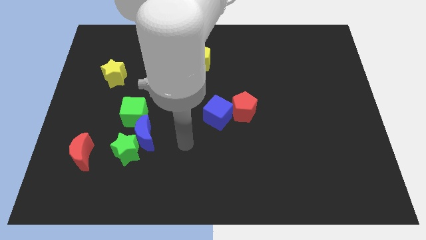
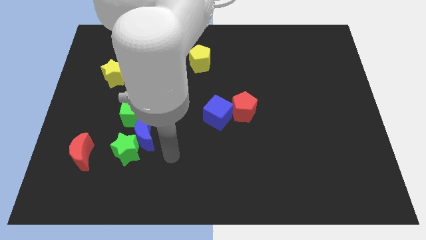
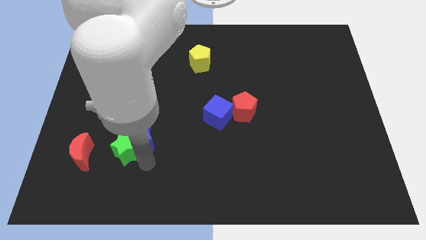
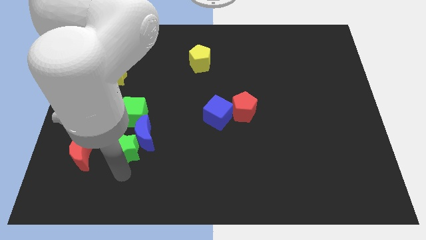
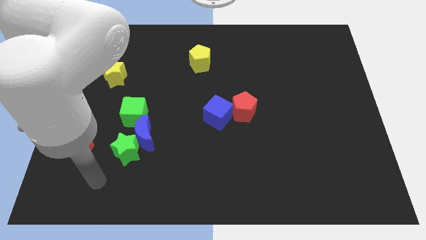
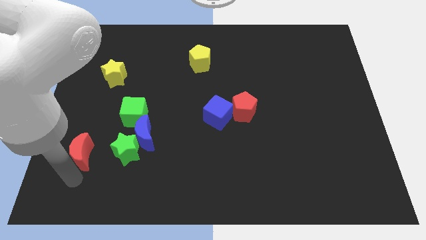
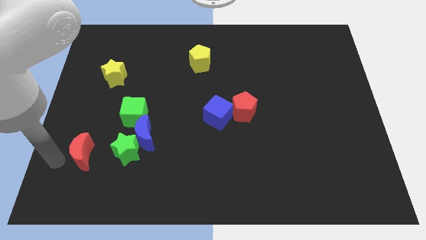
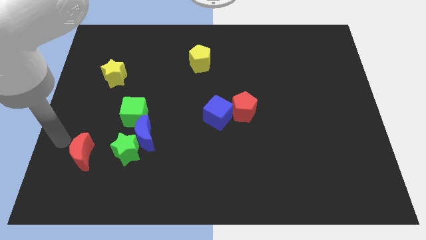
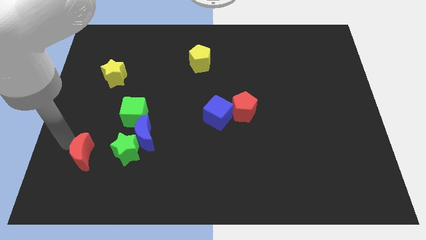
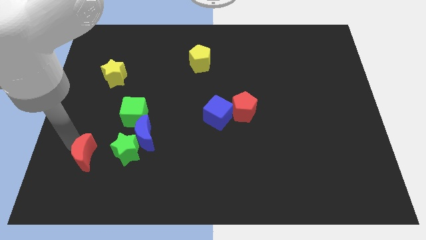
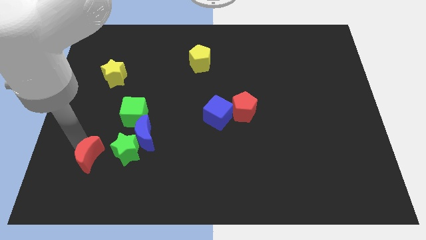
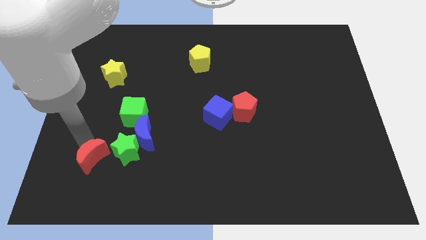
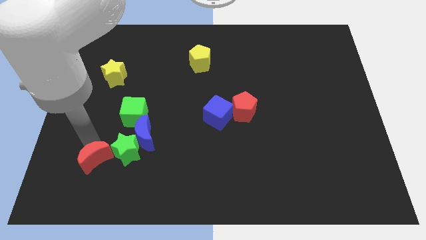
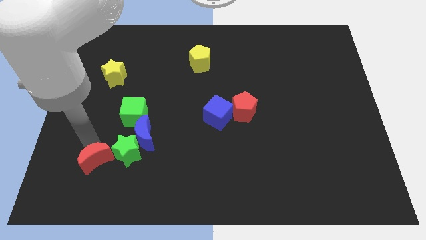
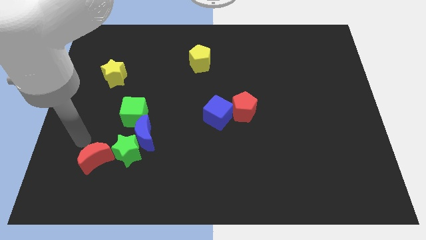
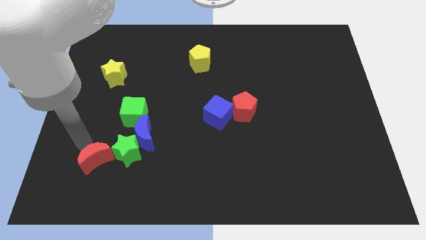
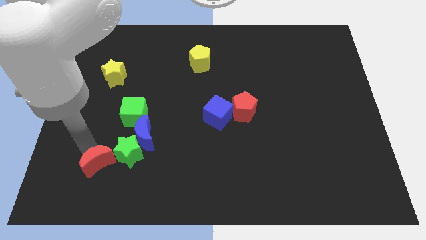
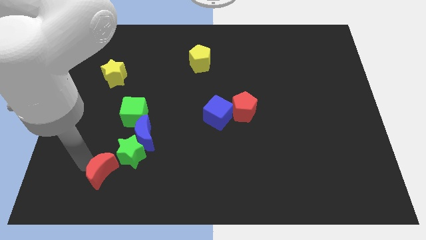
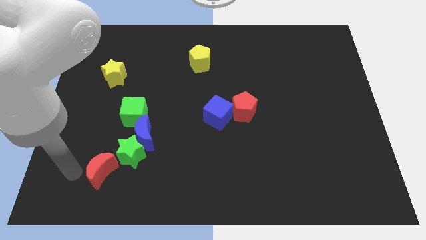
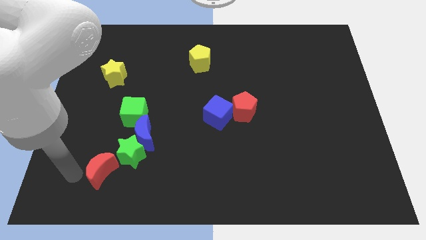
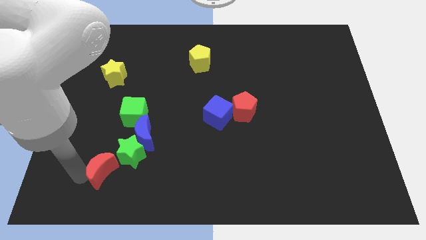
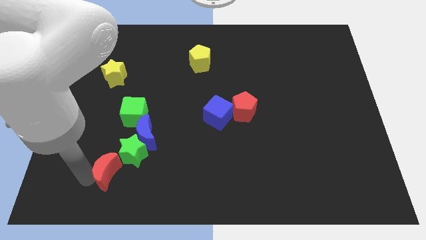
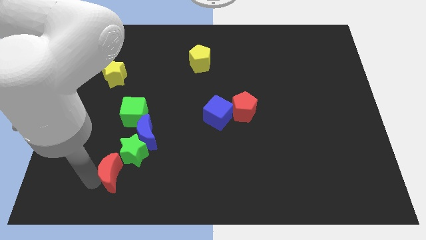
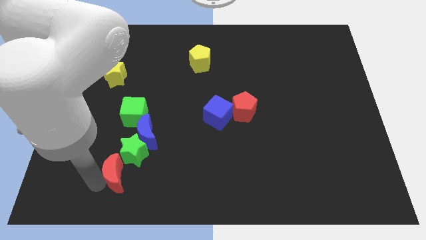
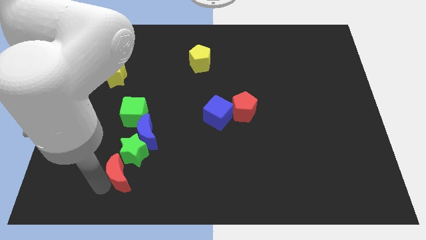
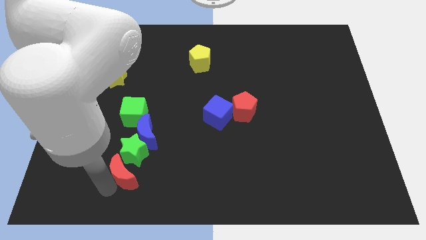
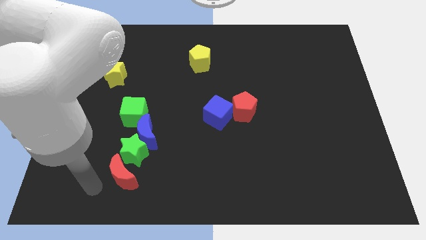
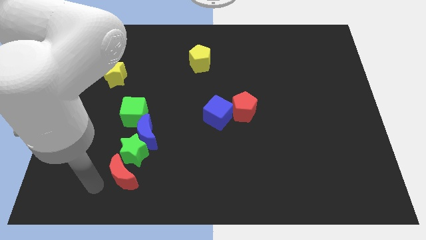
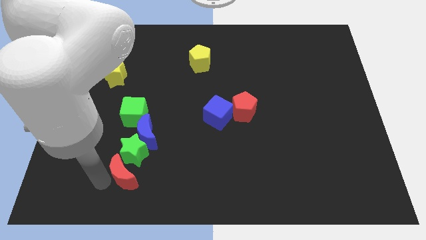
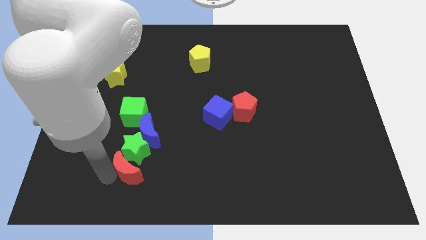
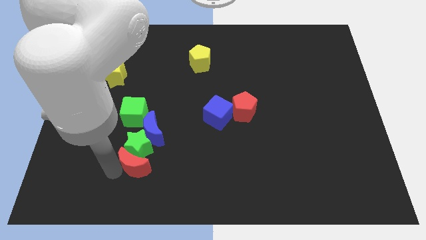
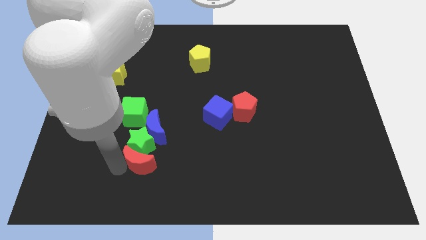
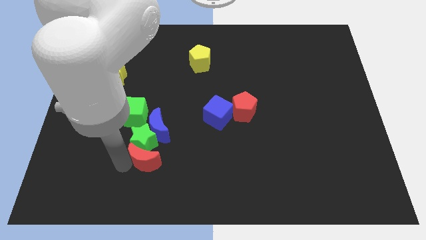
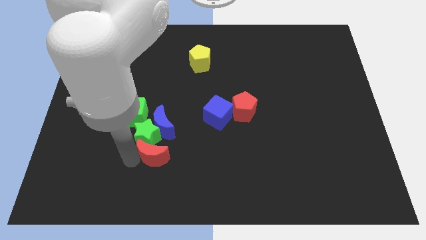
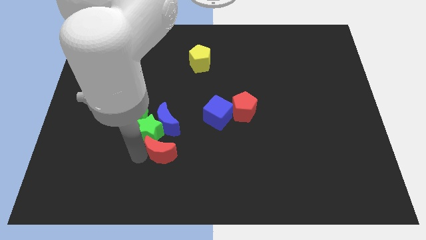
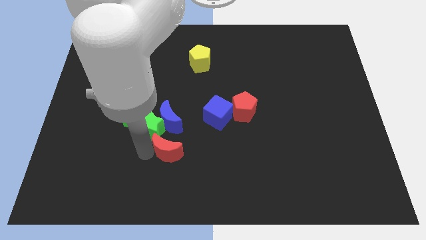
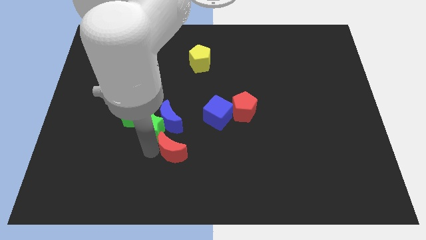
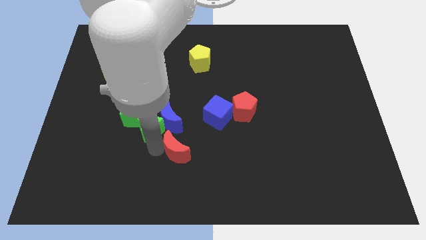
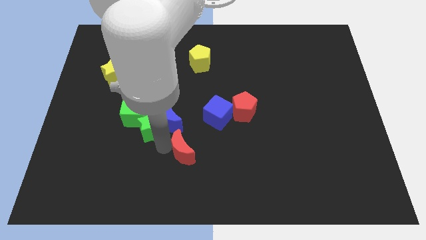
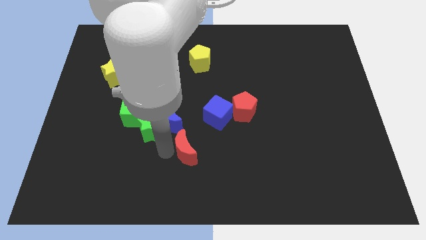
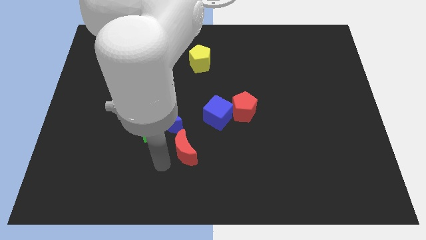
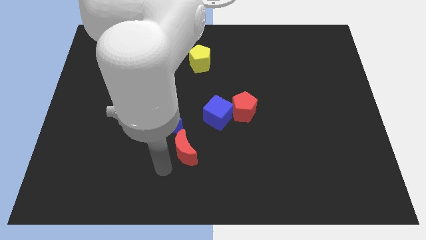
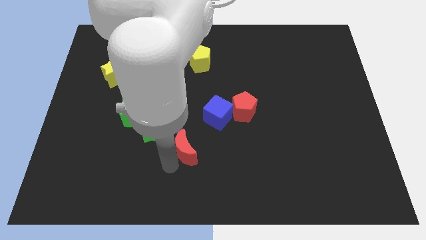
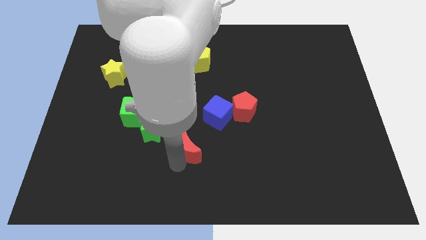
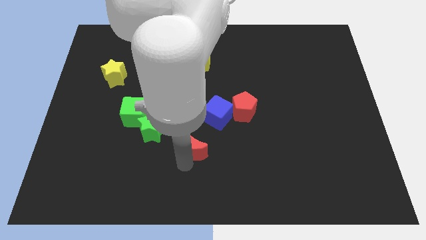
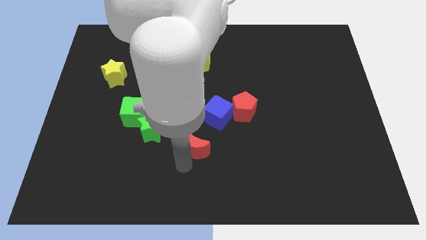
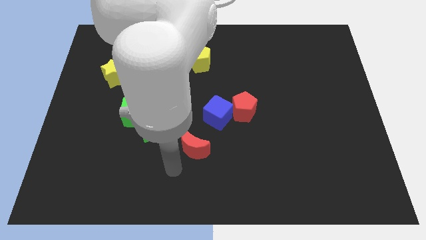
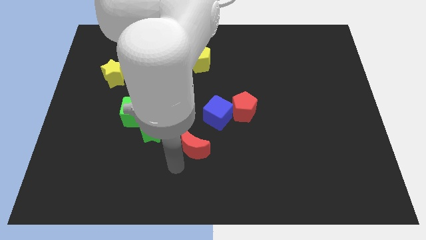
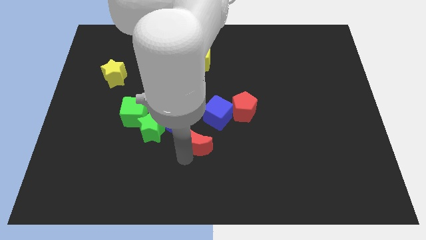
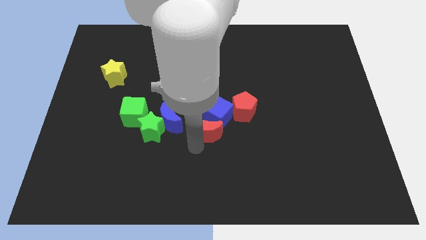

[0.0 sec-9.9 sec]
push the red moon next to the blue cube

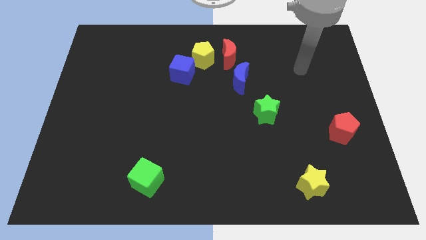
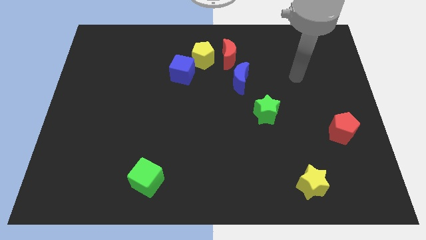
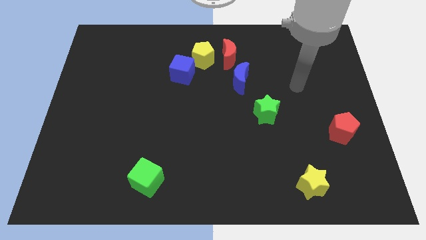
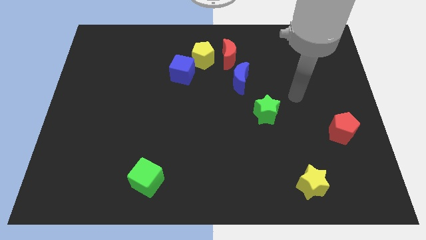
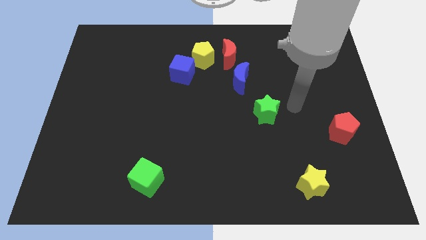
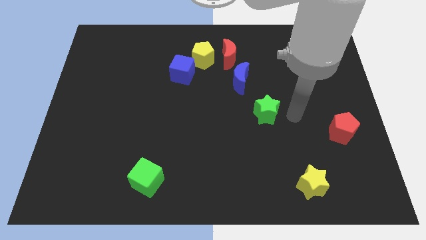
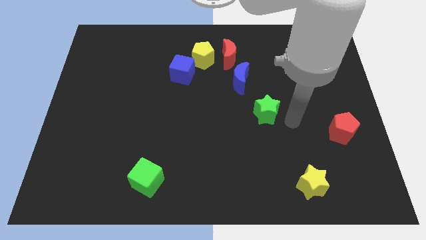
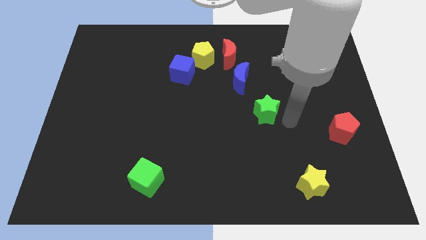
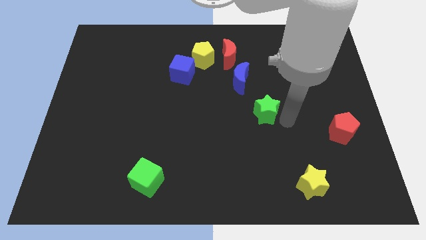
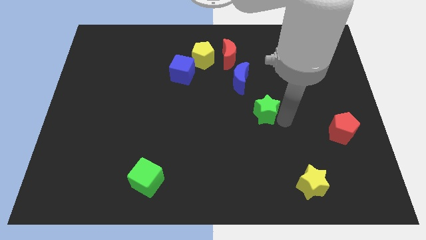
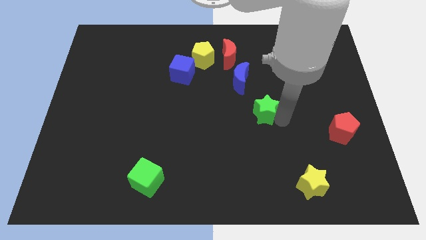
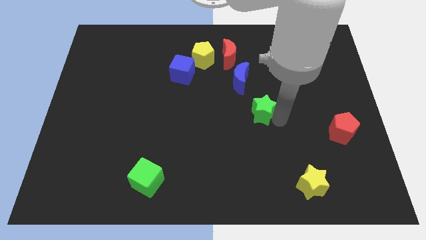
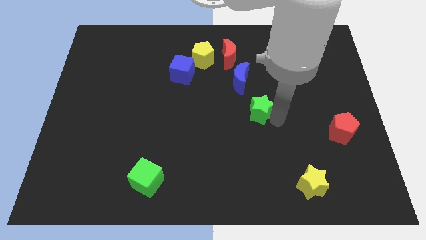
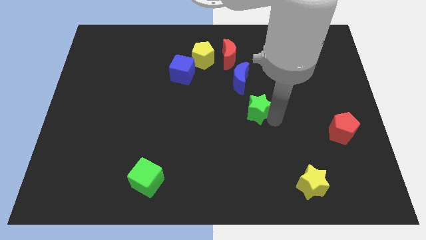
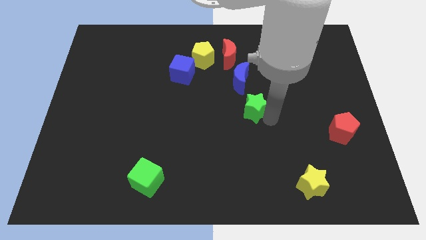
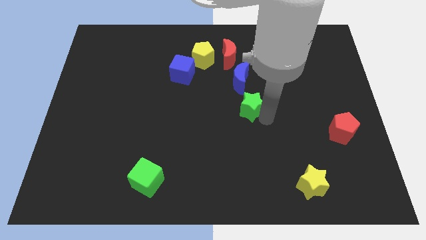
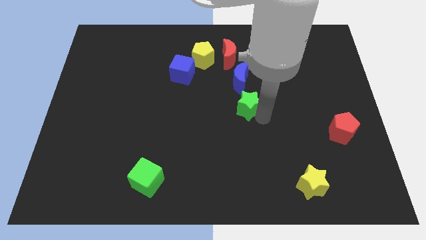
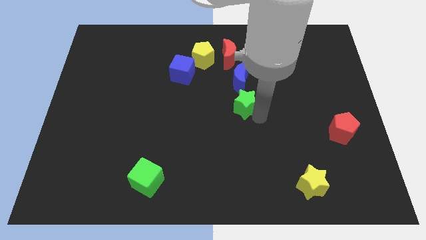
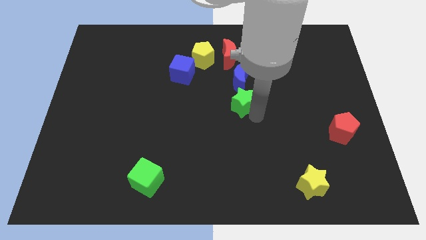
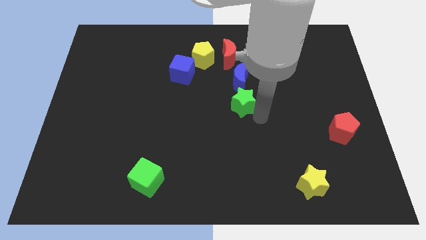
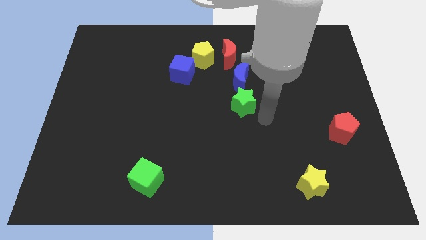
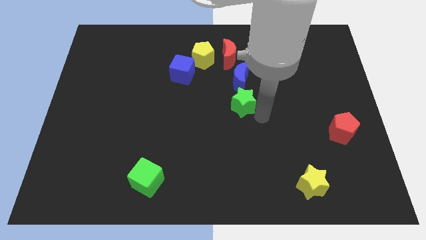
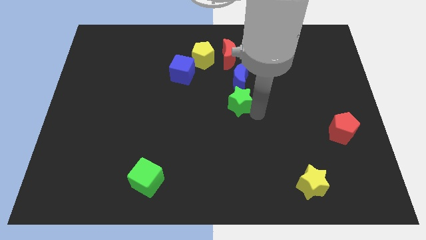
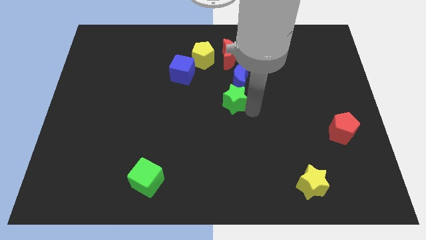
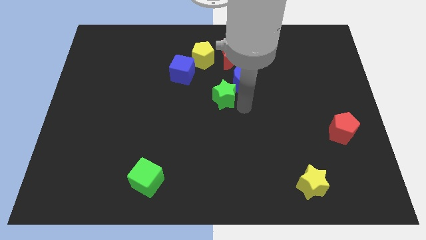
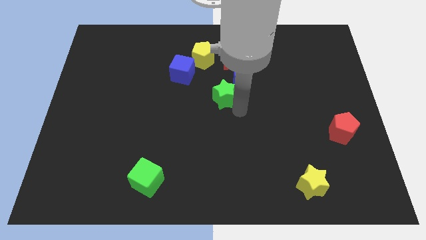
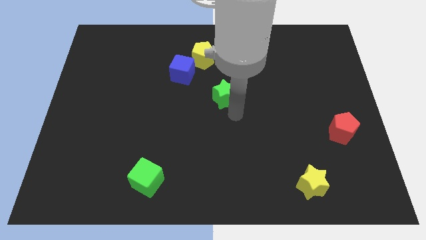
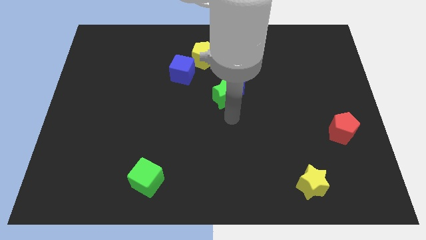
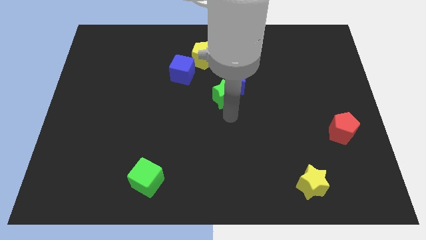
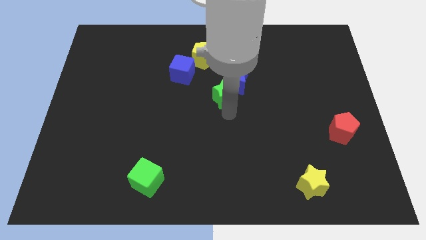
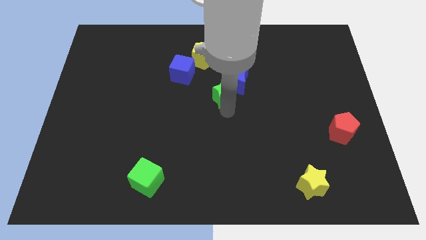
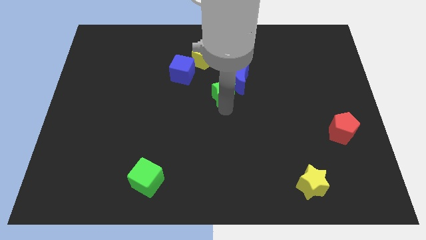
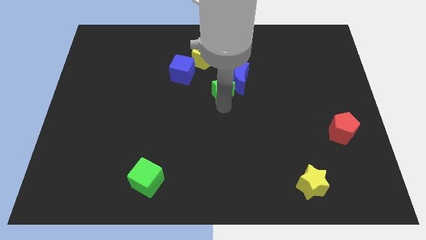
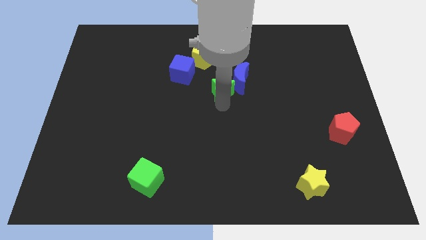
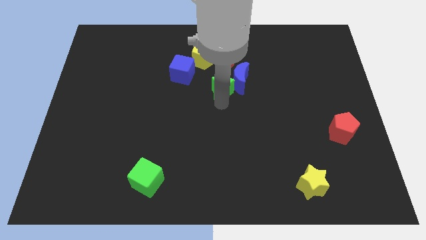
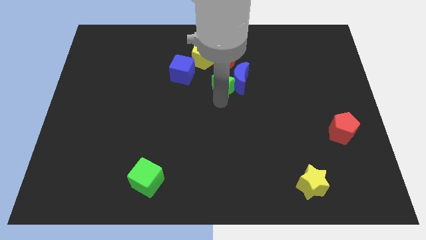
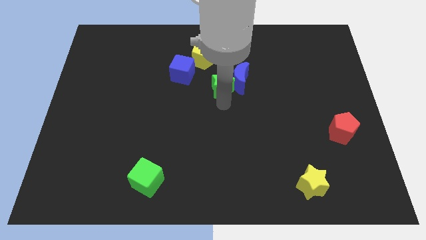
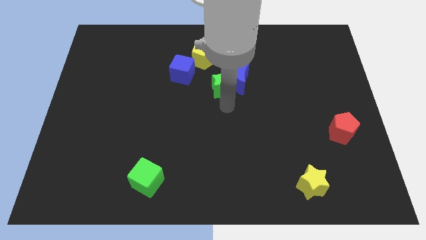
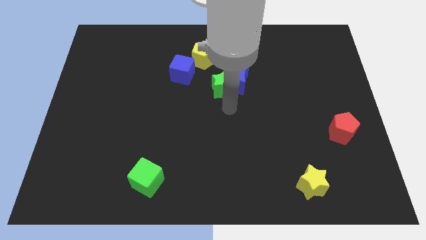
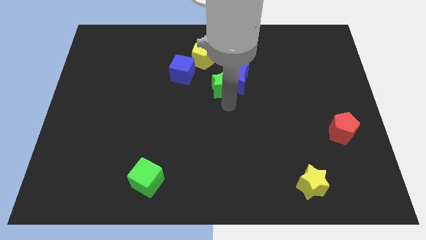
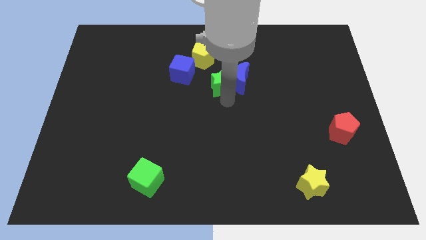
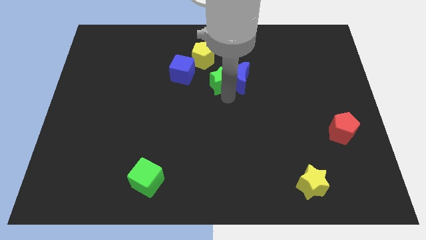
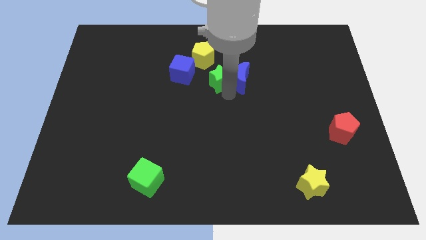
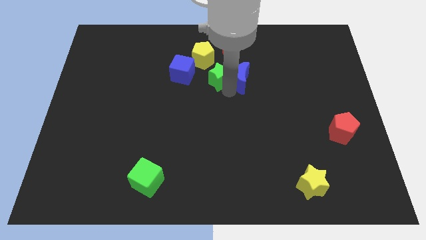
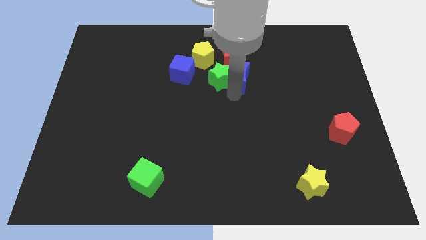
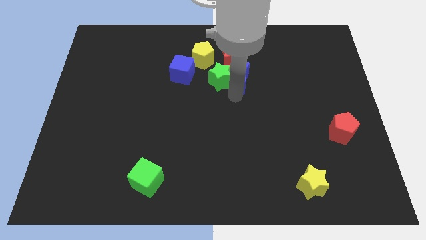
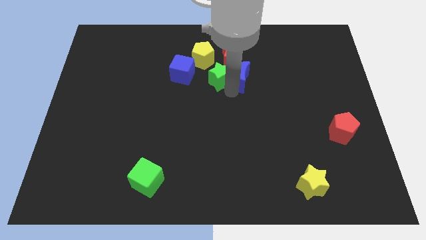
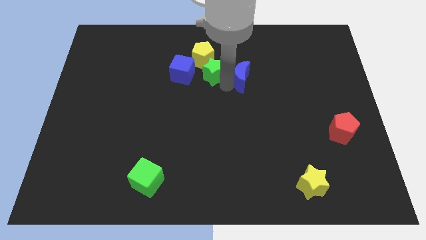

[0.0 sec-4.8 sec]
push the green star close to the yellow pentagon
